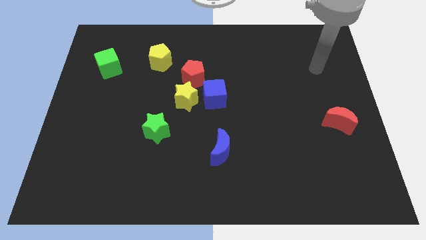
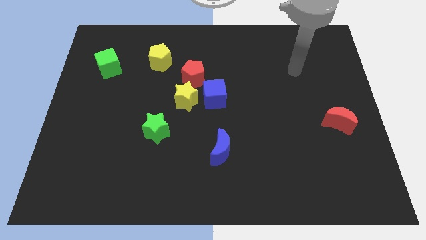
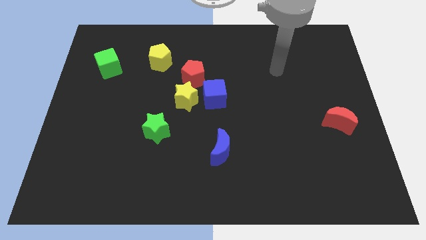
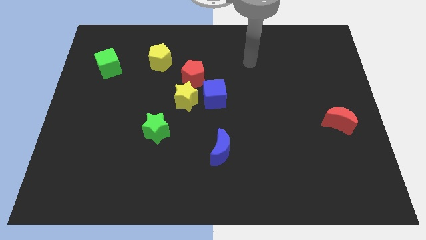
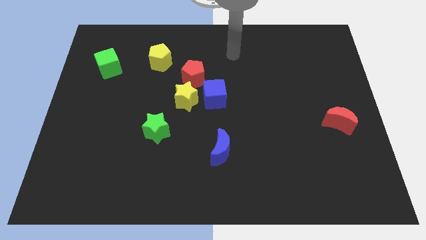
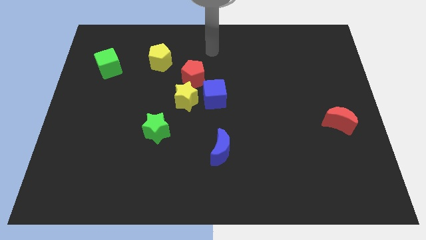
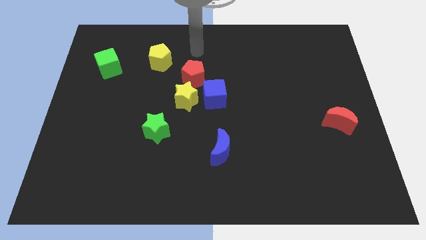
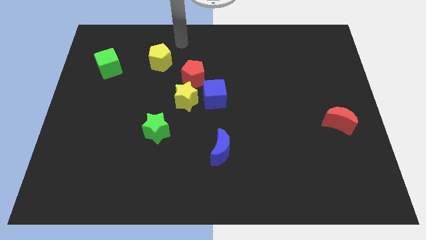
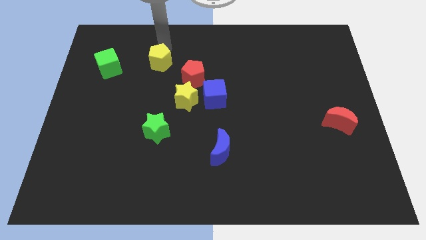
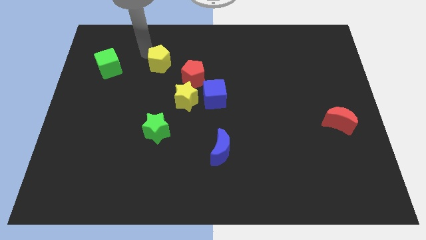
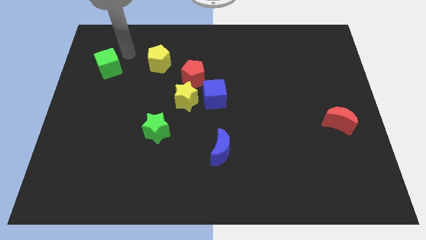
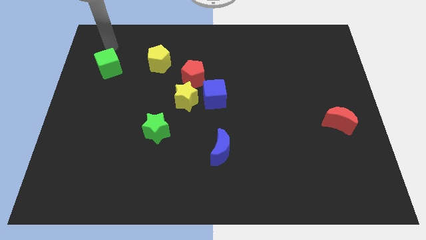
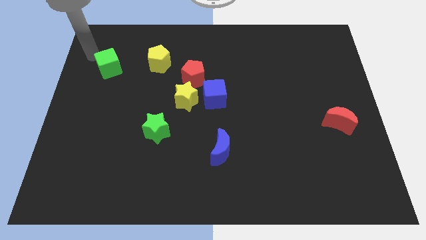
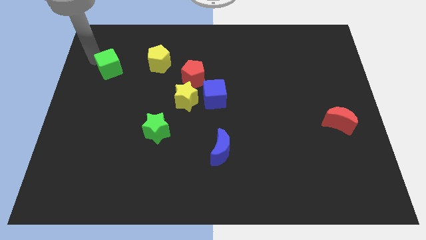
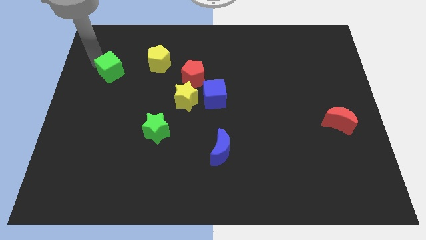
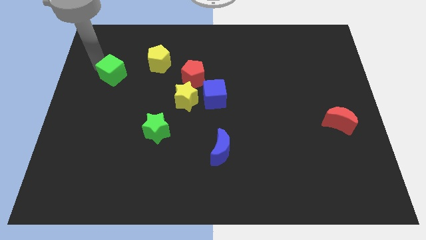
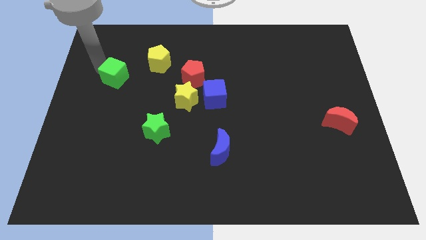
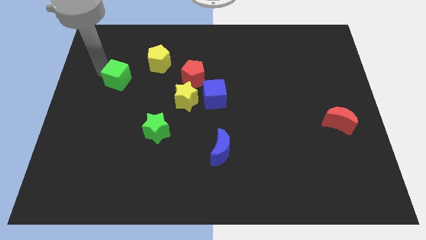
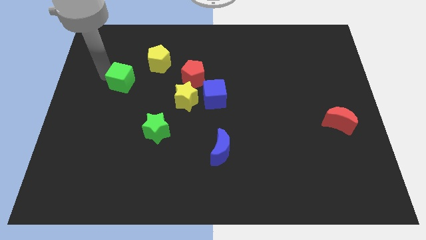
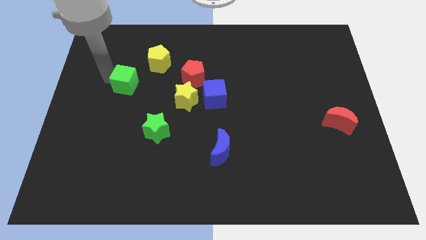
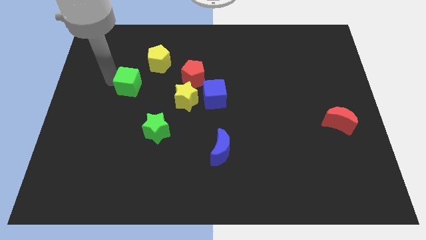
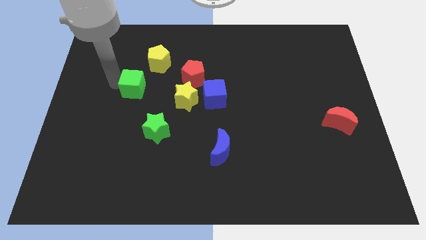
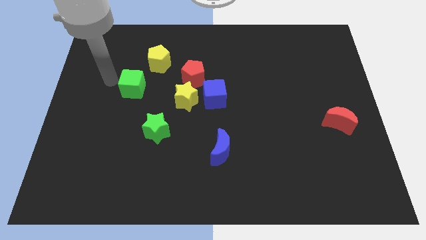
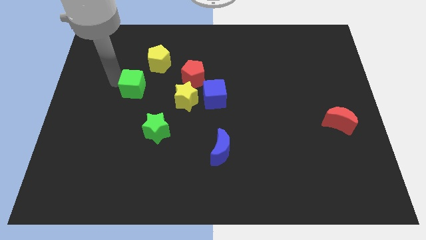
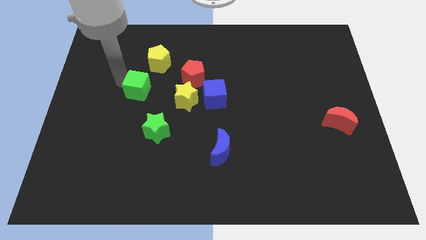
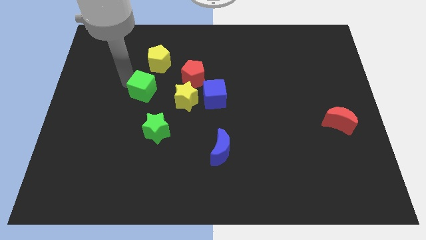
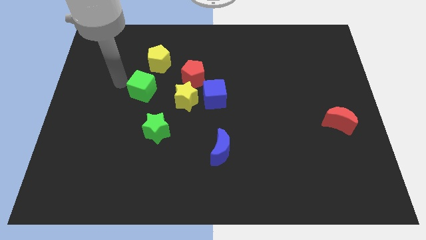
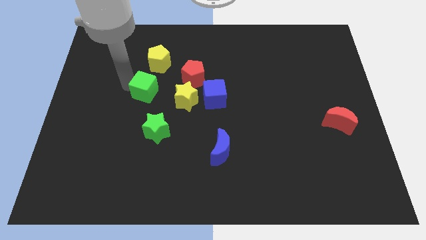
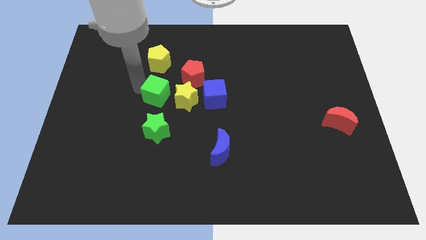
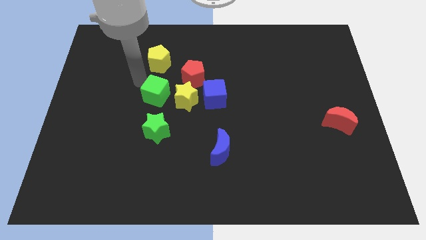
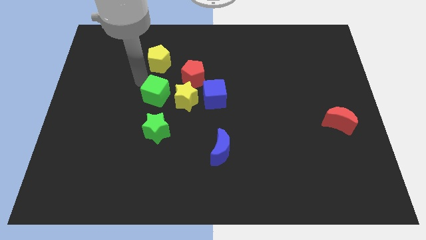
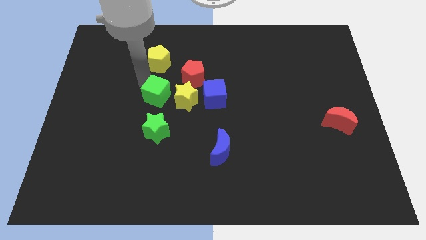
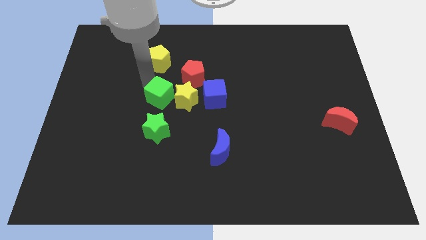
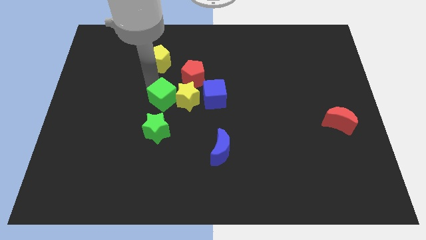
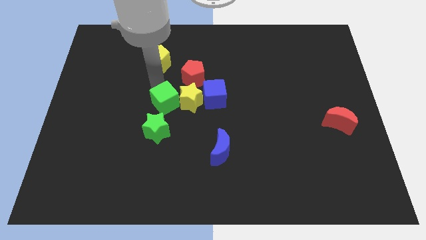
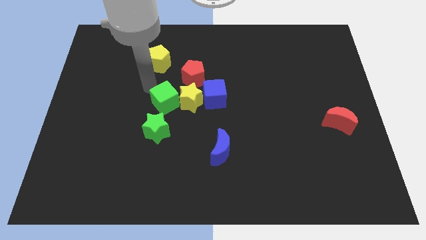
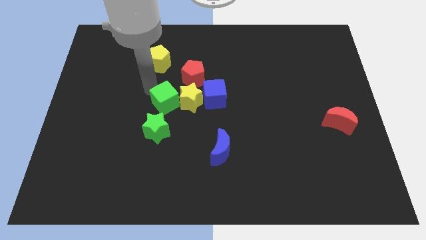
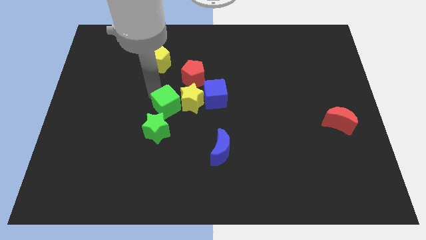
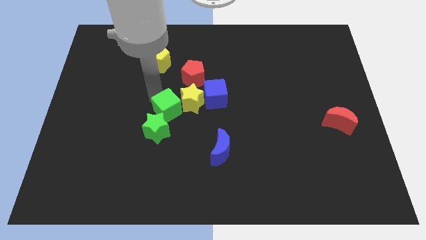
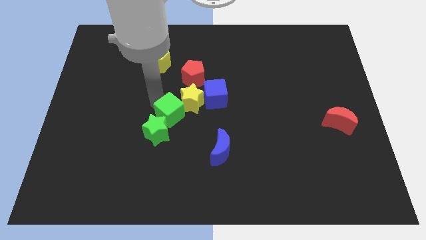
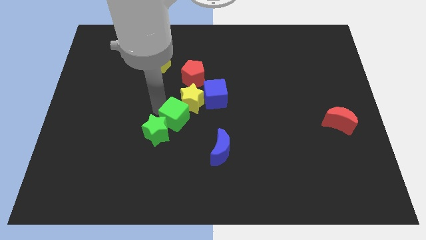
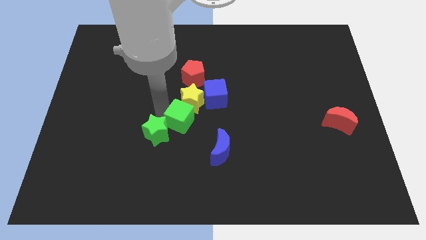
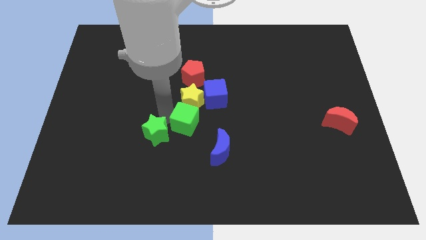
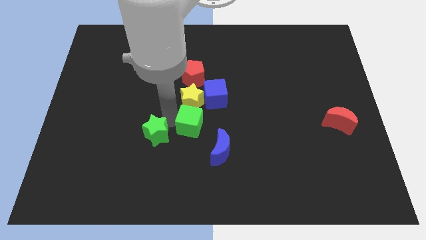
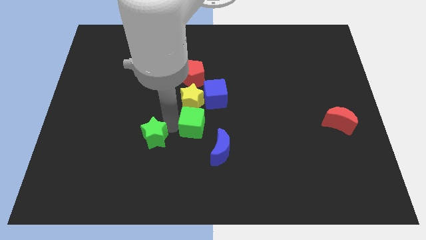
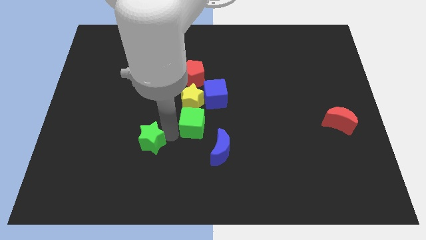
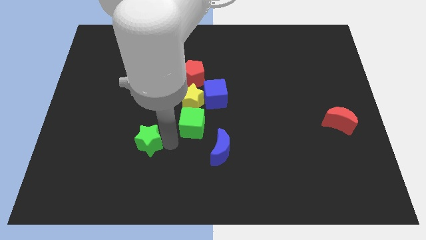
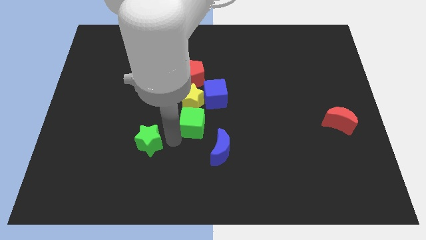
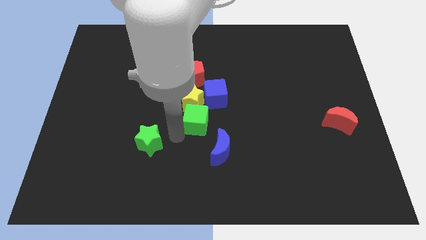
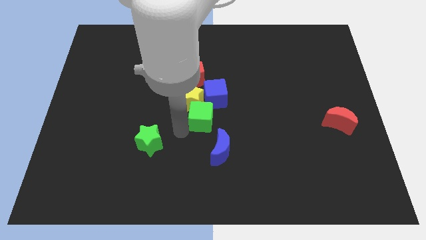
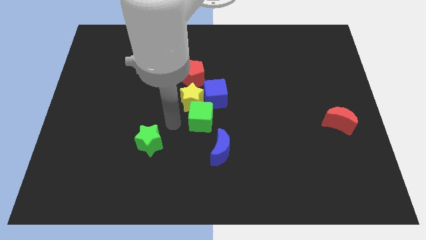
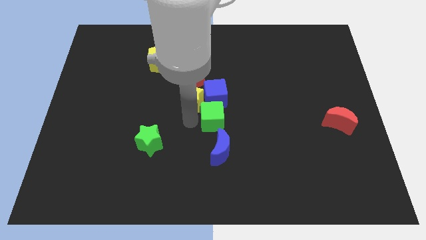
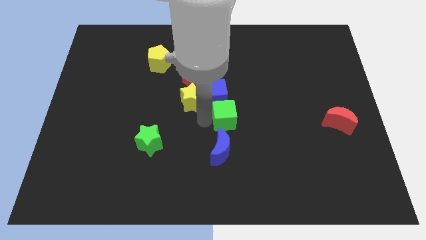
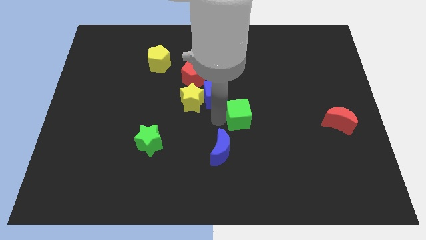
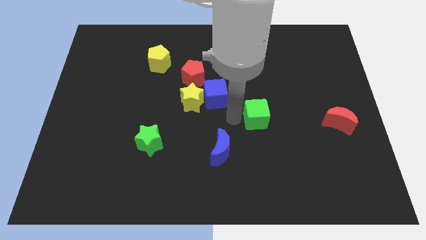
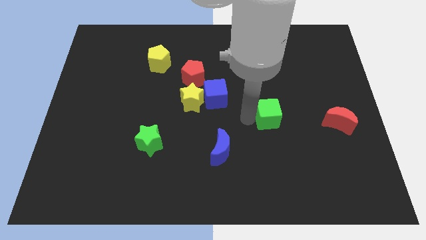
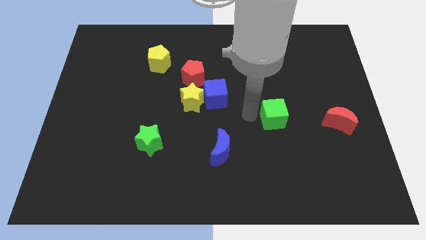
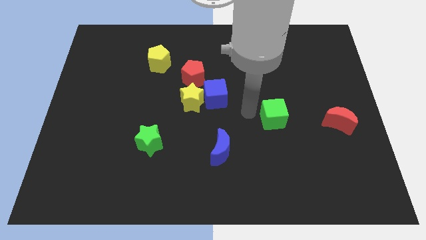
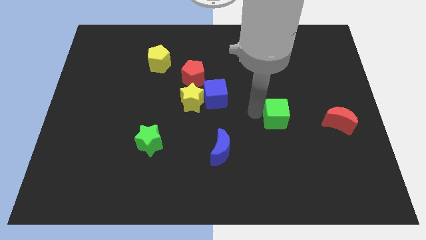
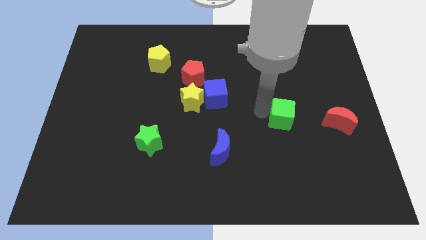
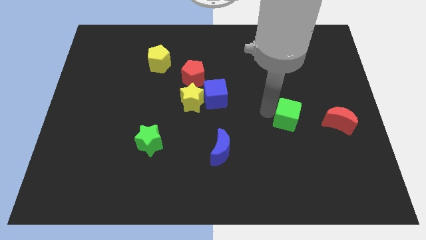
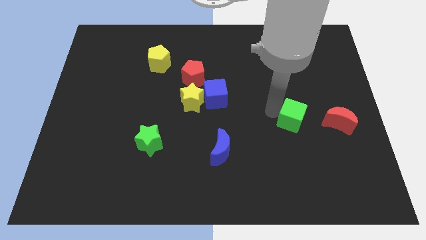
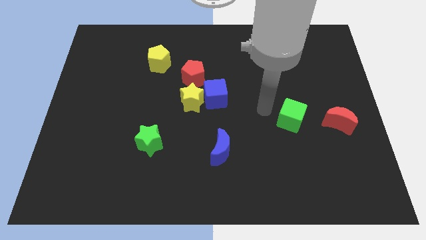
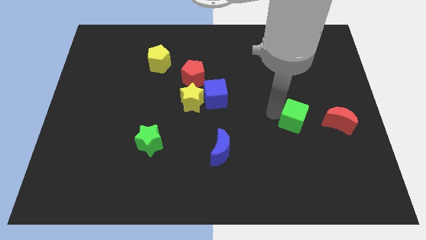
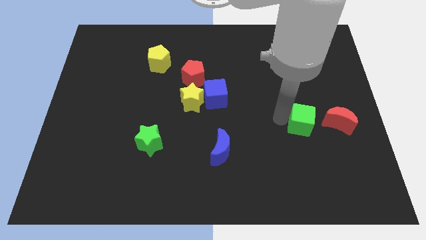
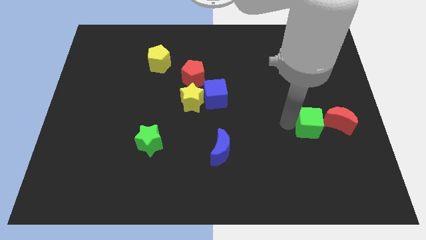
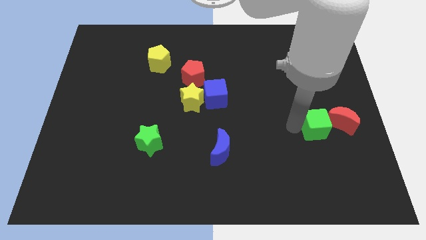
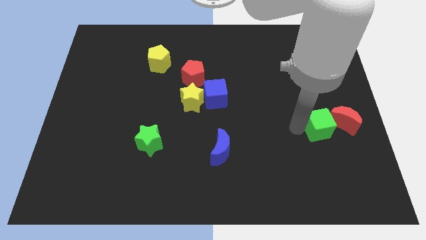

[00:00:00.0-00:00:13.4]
move the green cube to the red moon
